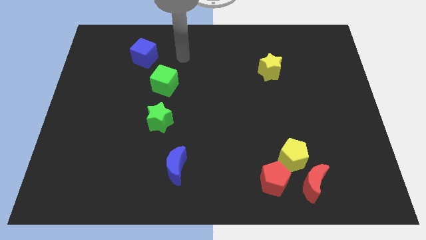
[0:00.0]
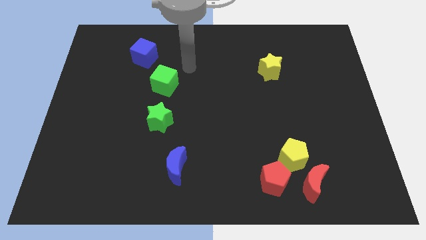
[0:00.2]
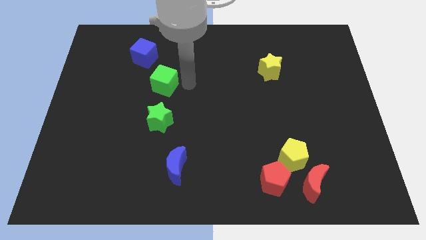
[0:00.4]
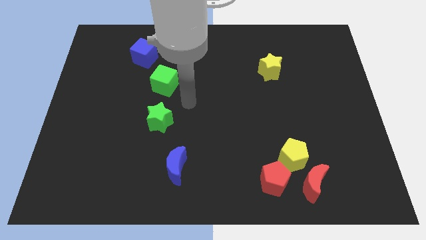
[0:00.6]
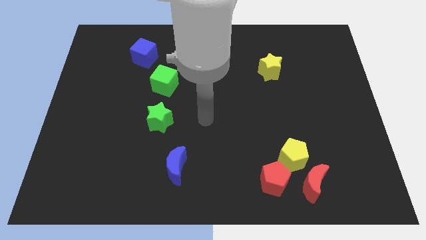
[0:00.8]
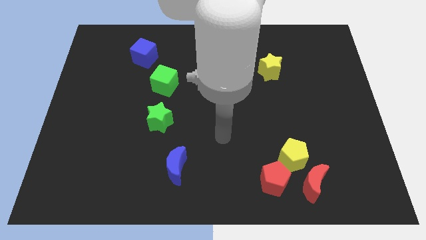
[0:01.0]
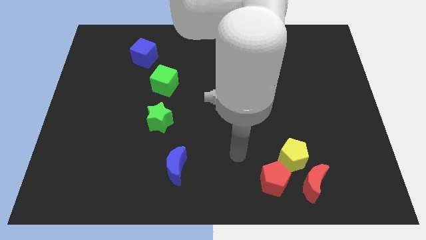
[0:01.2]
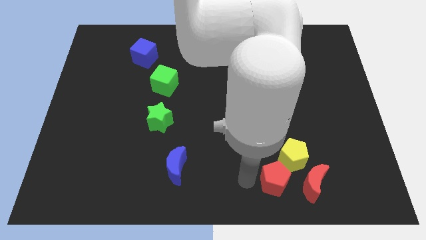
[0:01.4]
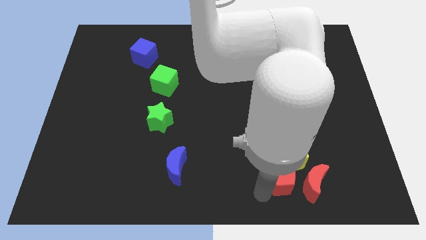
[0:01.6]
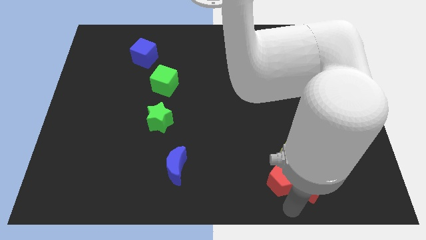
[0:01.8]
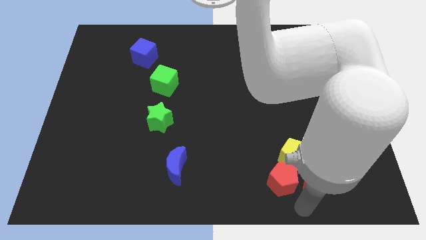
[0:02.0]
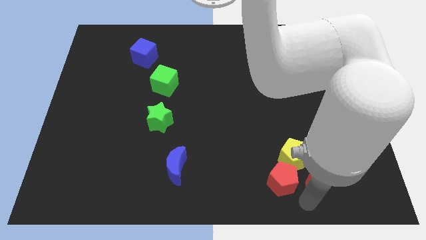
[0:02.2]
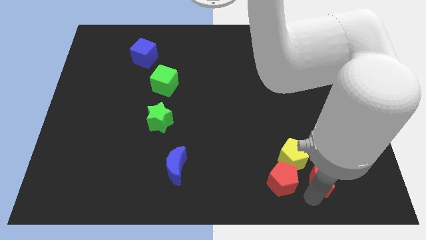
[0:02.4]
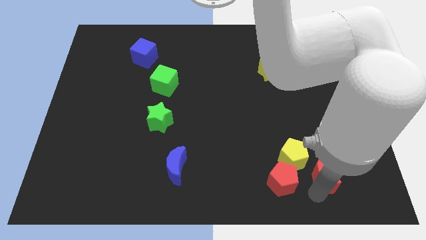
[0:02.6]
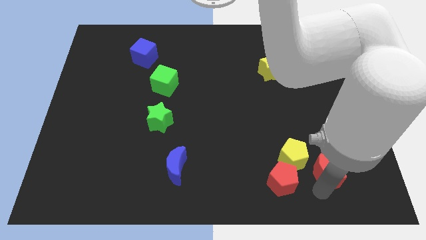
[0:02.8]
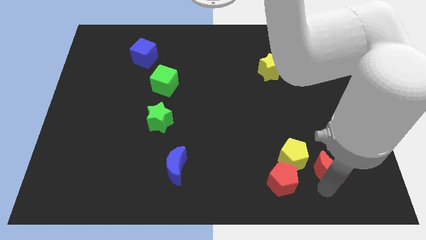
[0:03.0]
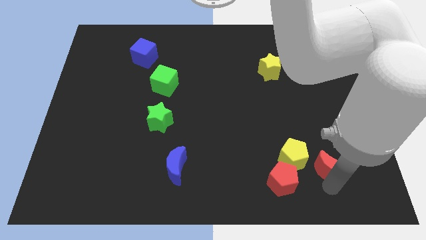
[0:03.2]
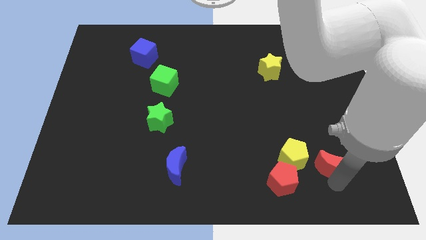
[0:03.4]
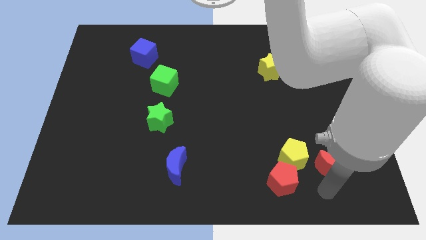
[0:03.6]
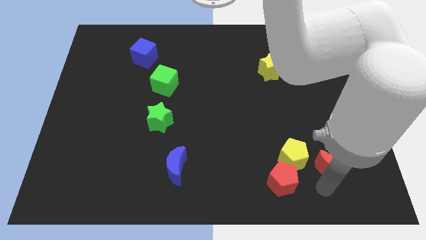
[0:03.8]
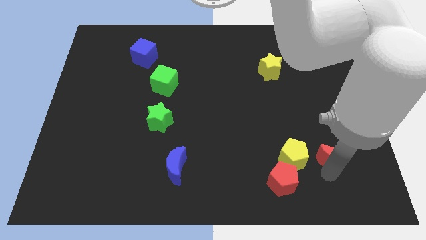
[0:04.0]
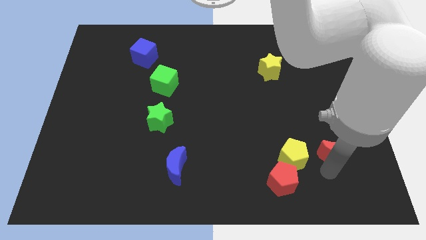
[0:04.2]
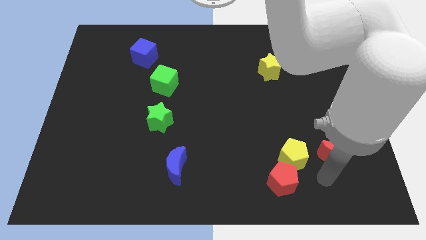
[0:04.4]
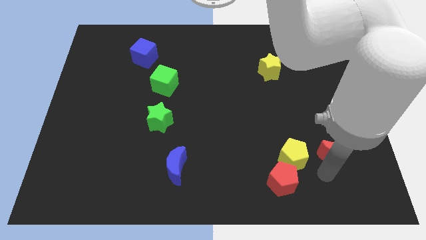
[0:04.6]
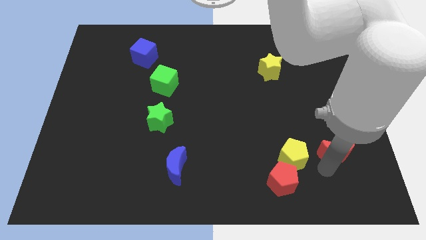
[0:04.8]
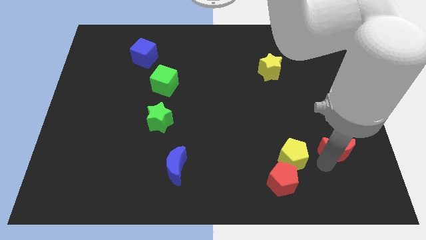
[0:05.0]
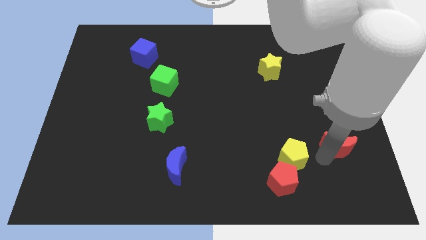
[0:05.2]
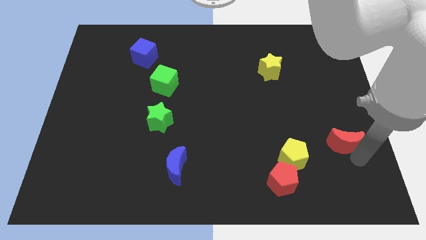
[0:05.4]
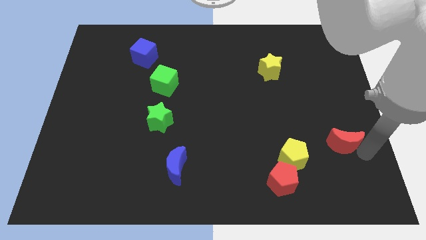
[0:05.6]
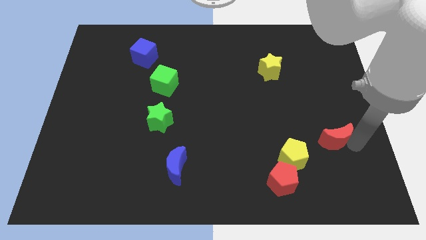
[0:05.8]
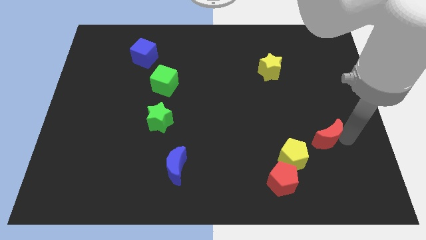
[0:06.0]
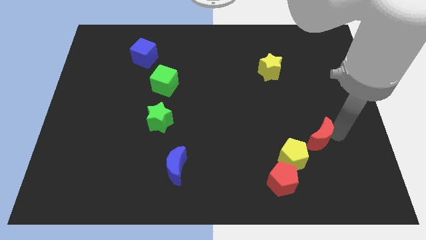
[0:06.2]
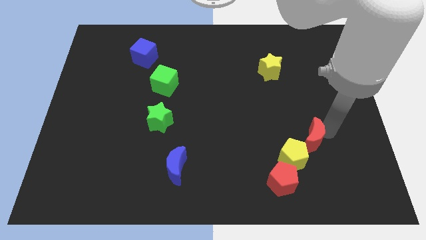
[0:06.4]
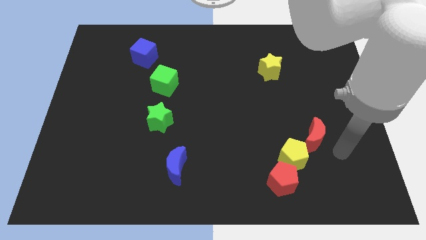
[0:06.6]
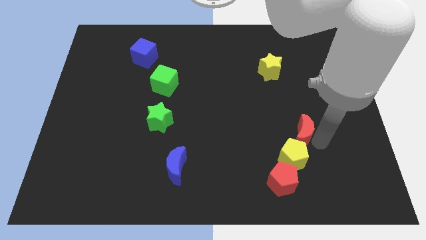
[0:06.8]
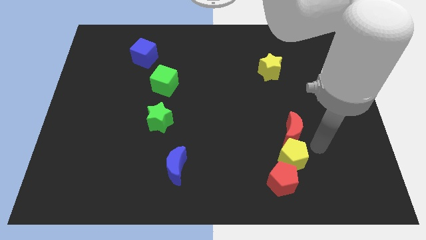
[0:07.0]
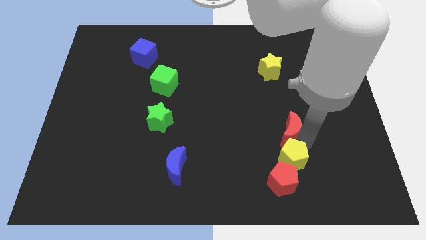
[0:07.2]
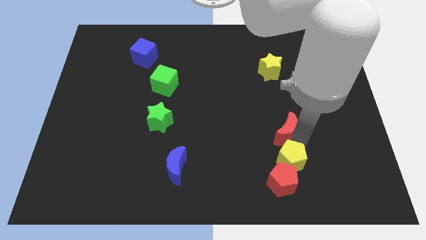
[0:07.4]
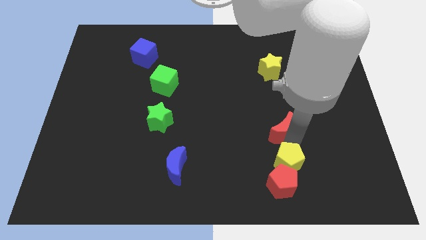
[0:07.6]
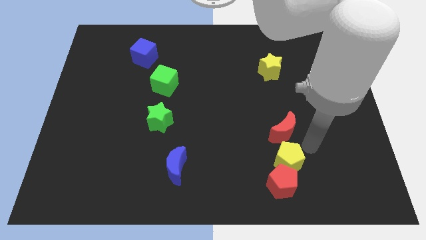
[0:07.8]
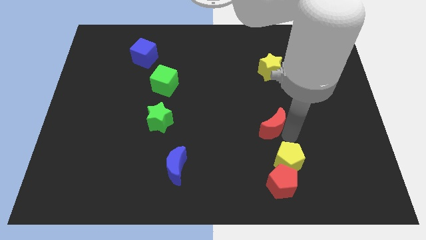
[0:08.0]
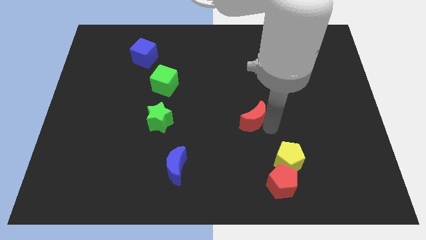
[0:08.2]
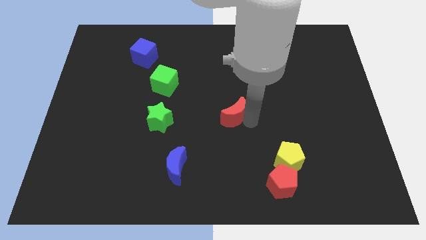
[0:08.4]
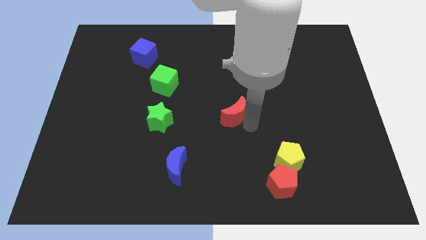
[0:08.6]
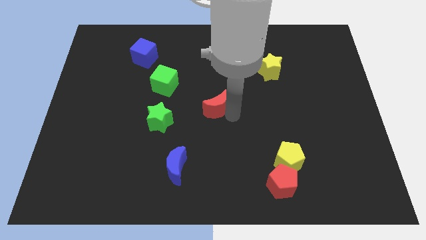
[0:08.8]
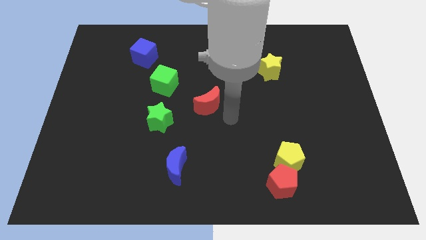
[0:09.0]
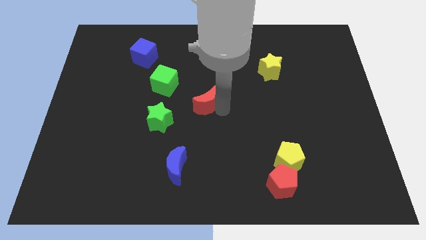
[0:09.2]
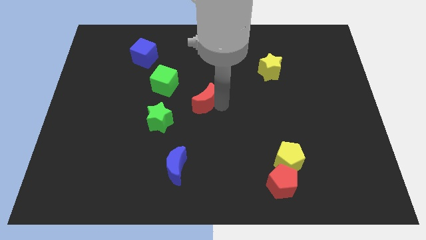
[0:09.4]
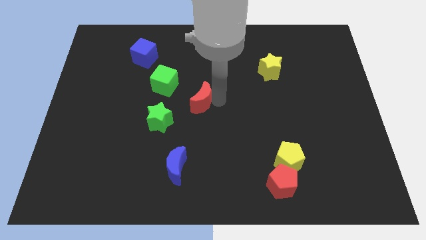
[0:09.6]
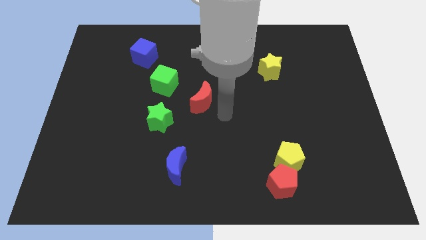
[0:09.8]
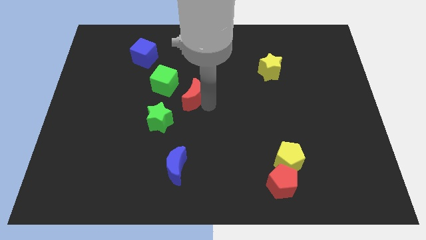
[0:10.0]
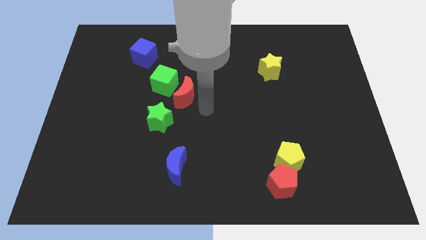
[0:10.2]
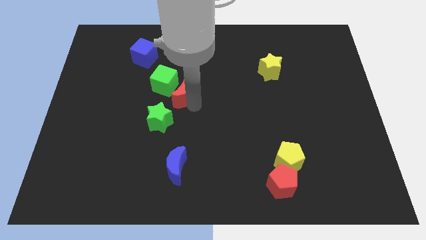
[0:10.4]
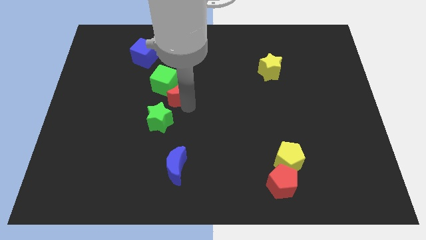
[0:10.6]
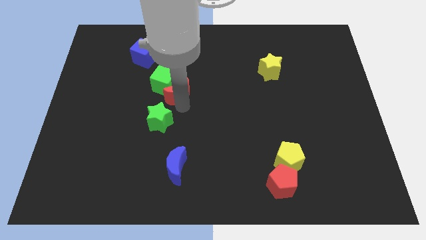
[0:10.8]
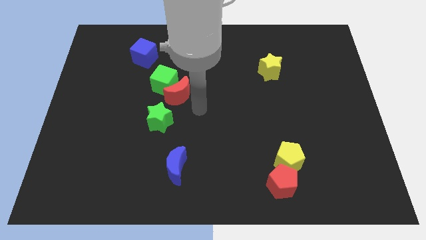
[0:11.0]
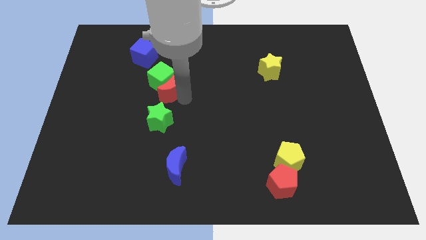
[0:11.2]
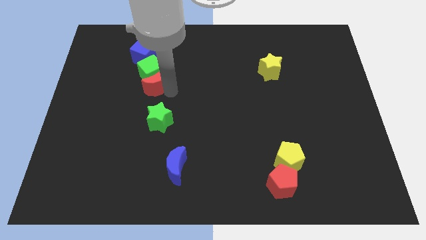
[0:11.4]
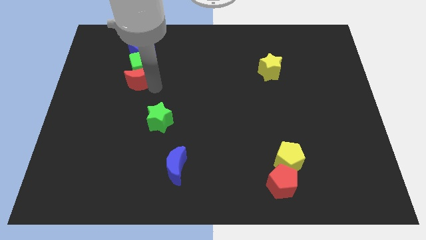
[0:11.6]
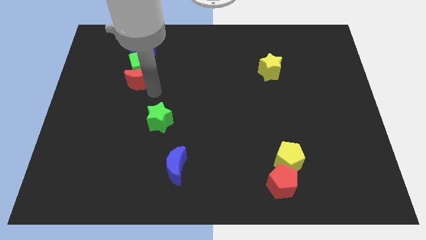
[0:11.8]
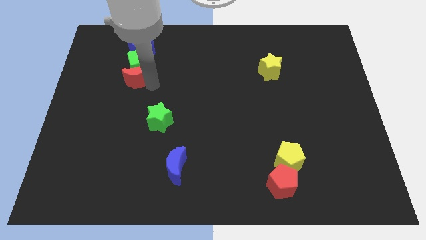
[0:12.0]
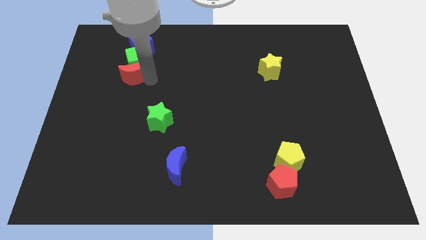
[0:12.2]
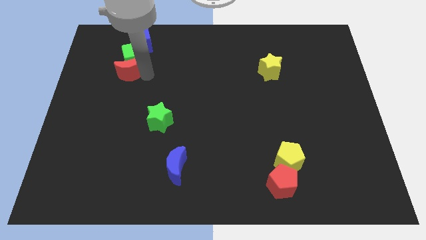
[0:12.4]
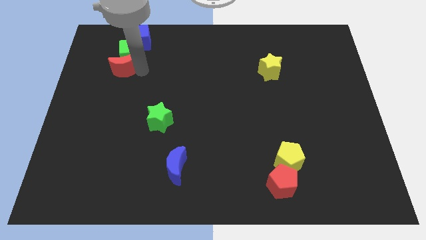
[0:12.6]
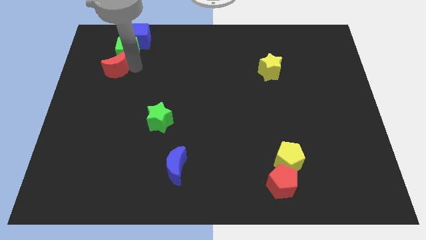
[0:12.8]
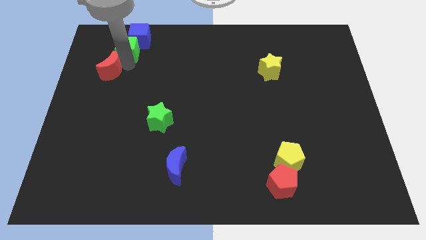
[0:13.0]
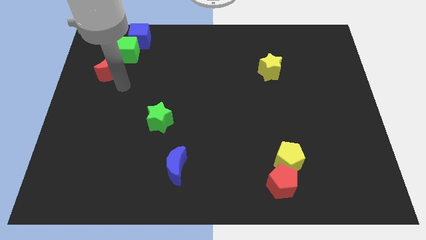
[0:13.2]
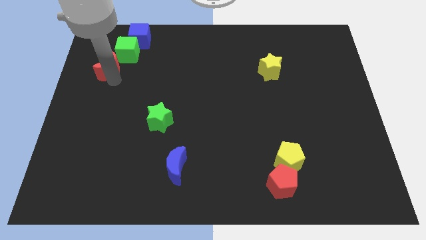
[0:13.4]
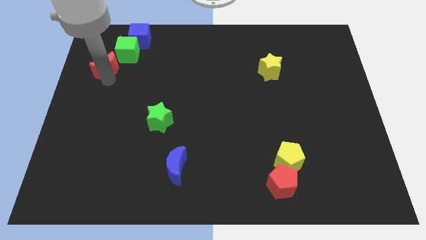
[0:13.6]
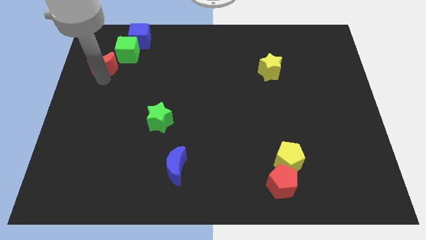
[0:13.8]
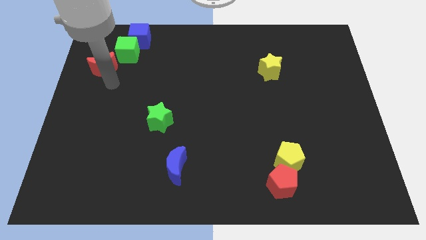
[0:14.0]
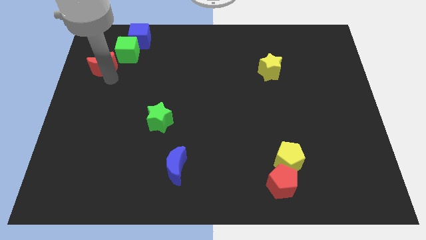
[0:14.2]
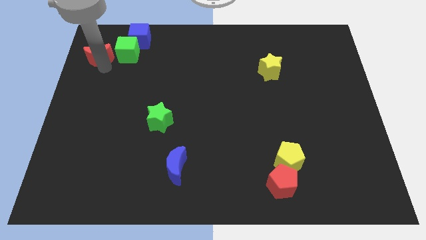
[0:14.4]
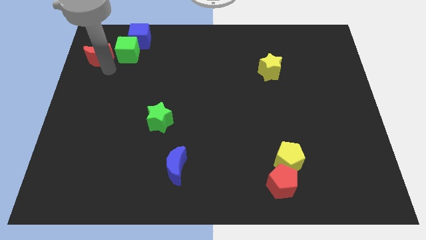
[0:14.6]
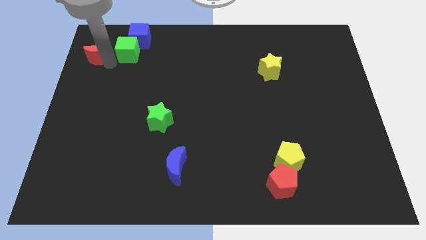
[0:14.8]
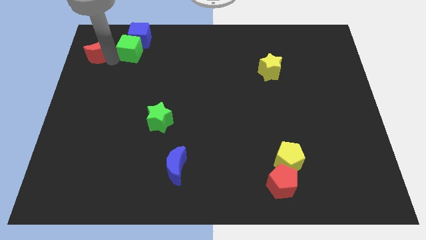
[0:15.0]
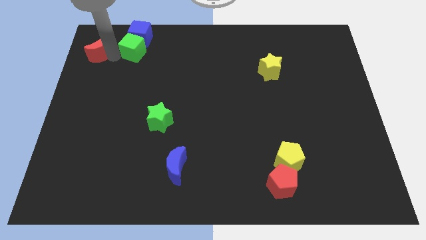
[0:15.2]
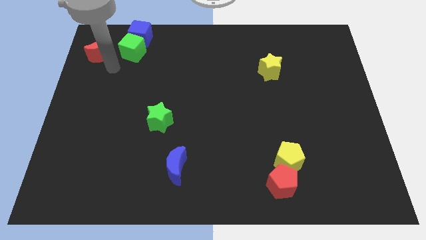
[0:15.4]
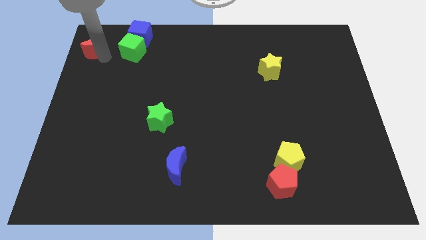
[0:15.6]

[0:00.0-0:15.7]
push the red moon to the upper left corner

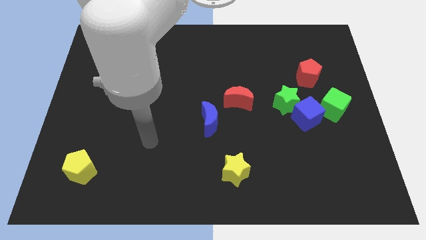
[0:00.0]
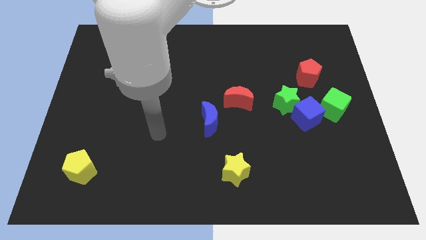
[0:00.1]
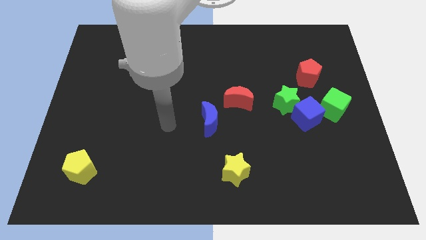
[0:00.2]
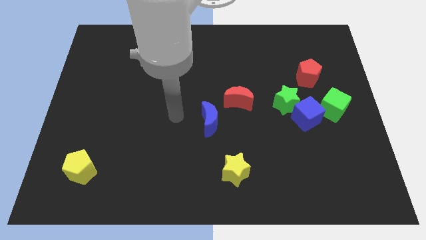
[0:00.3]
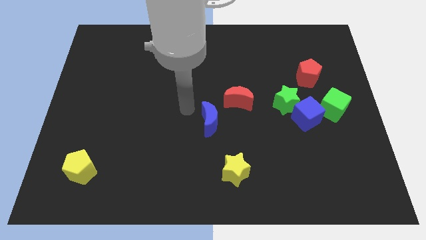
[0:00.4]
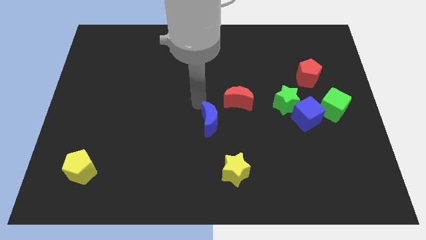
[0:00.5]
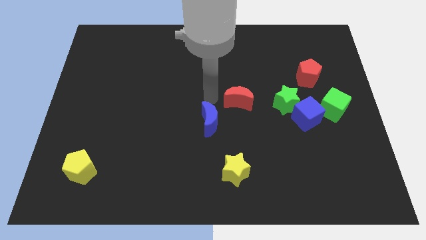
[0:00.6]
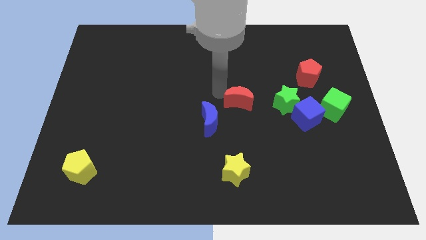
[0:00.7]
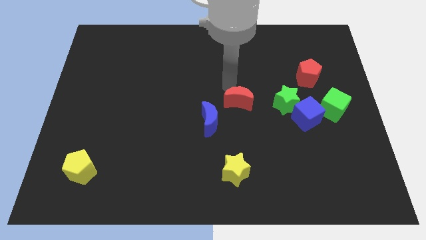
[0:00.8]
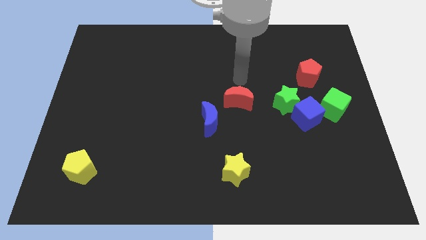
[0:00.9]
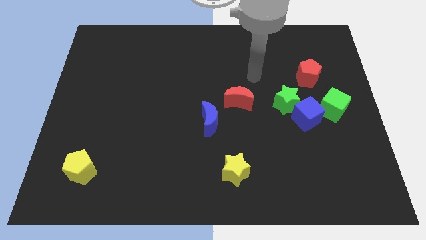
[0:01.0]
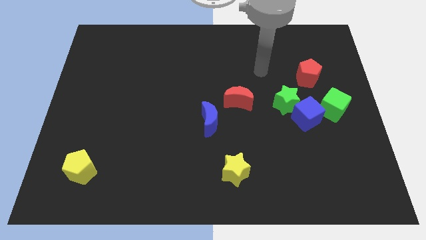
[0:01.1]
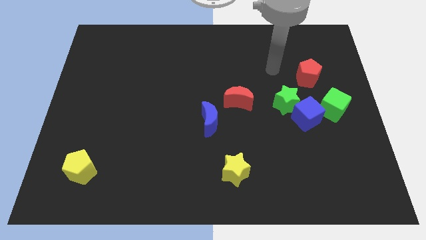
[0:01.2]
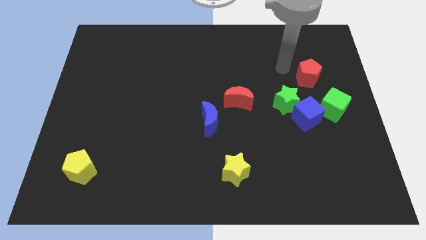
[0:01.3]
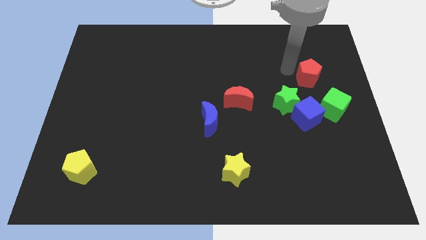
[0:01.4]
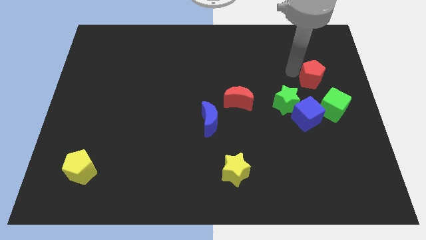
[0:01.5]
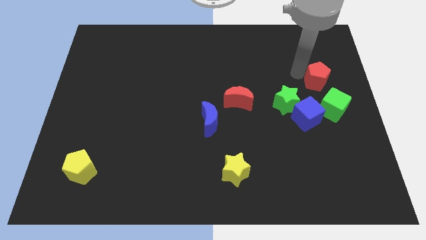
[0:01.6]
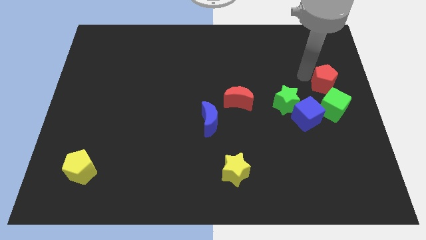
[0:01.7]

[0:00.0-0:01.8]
slide the red pentagon to the right side of the board
